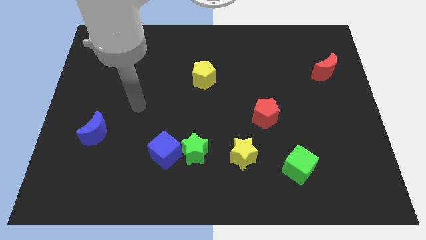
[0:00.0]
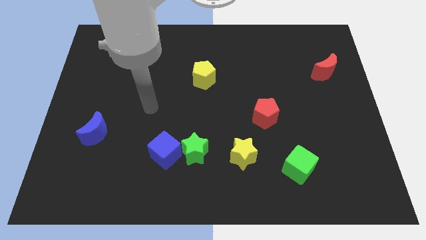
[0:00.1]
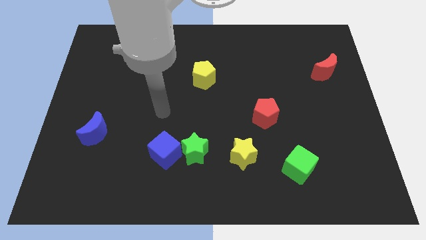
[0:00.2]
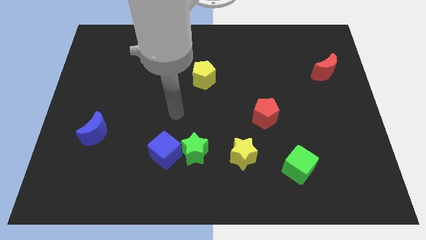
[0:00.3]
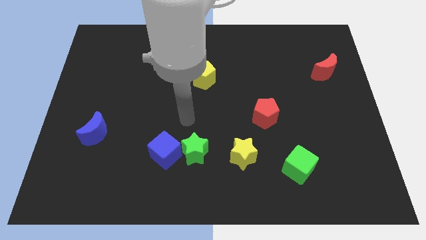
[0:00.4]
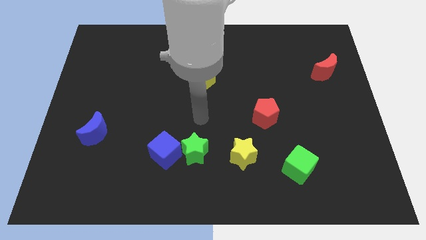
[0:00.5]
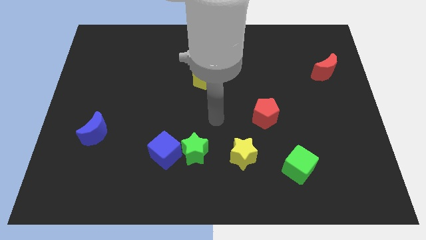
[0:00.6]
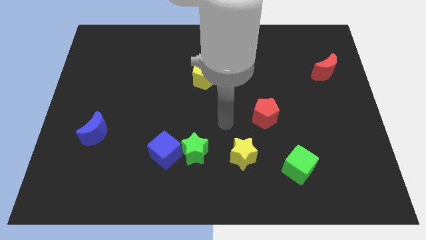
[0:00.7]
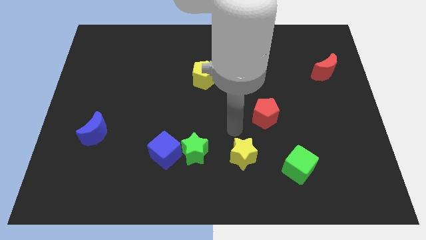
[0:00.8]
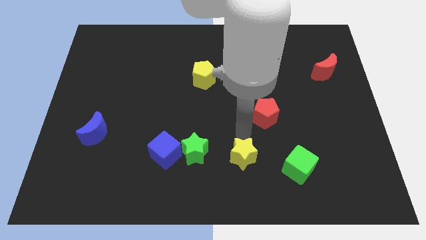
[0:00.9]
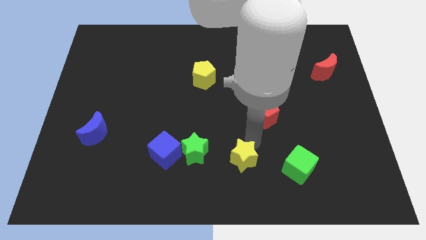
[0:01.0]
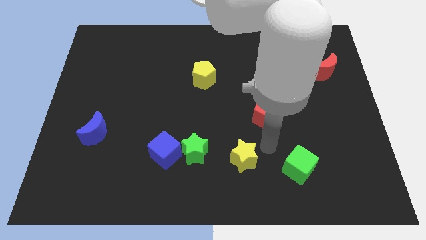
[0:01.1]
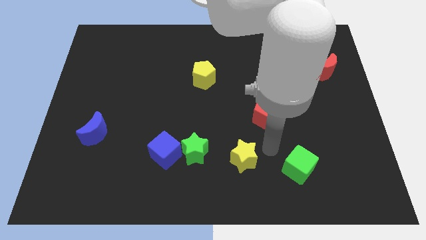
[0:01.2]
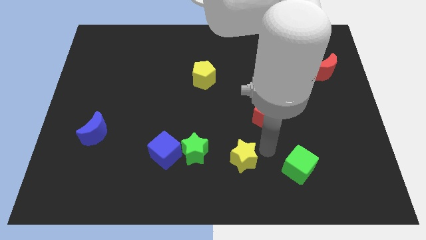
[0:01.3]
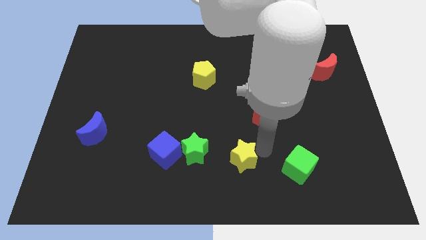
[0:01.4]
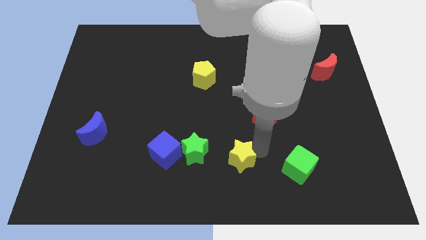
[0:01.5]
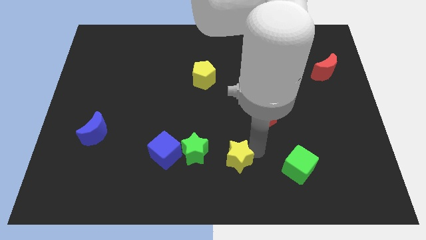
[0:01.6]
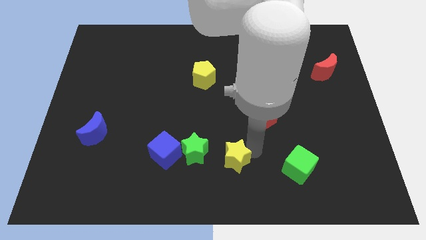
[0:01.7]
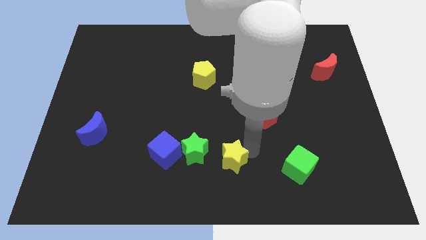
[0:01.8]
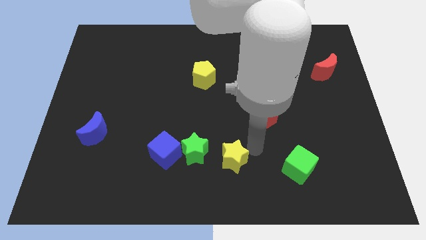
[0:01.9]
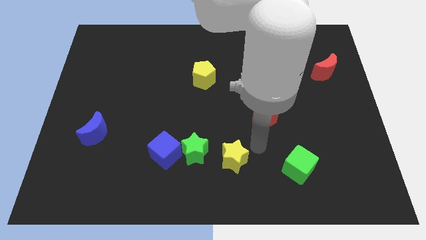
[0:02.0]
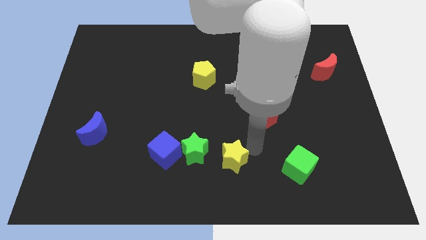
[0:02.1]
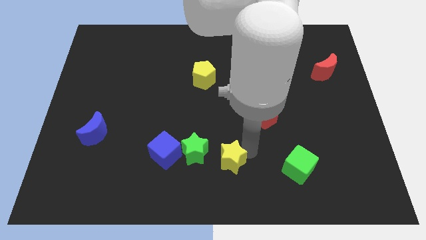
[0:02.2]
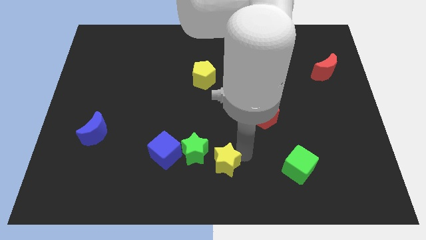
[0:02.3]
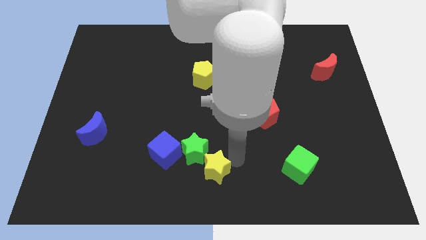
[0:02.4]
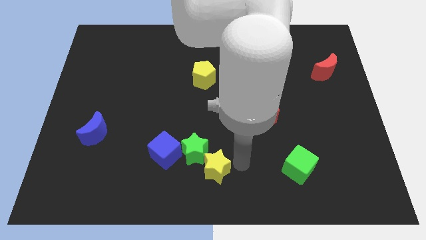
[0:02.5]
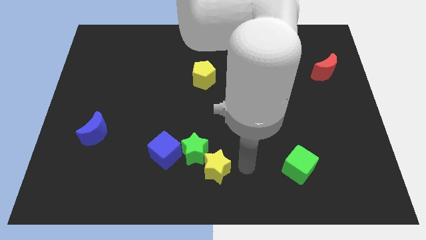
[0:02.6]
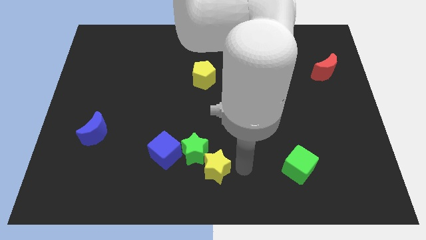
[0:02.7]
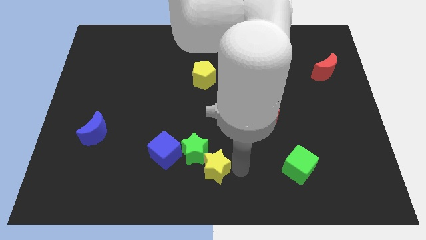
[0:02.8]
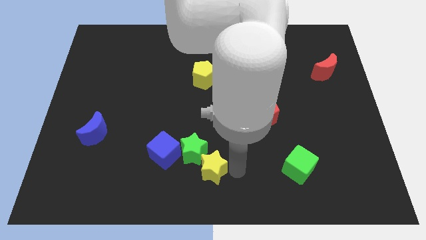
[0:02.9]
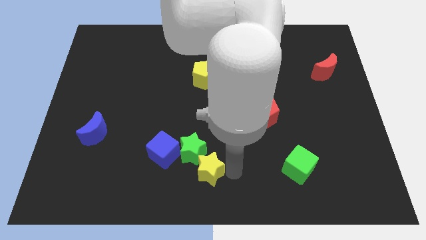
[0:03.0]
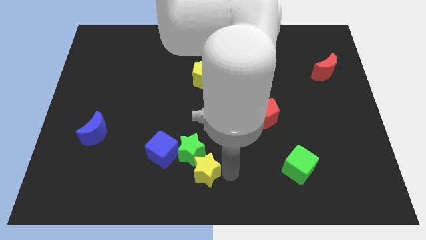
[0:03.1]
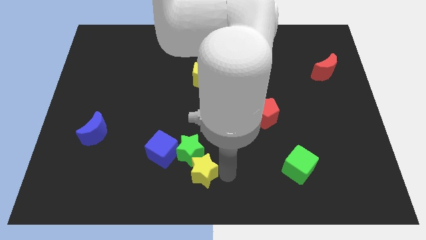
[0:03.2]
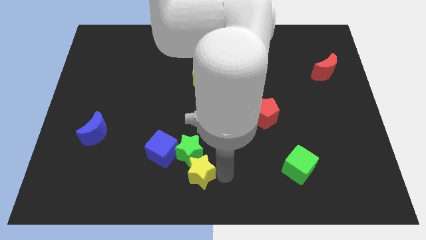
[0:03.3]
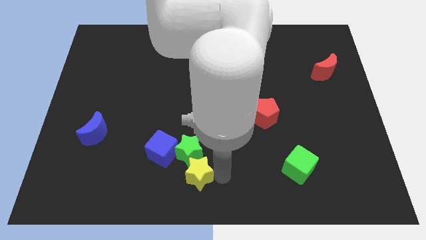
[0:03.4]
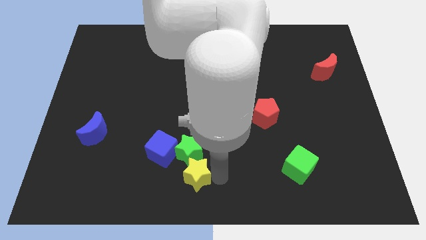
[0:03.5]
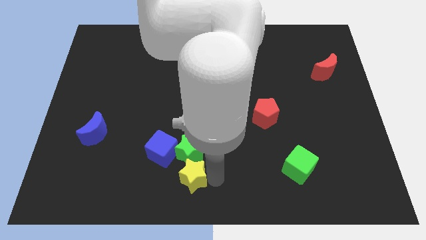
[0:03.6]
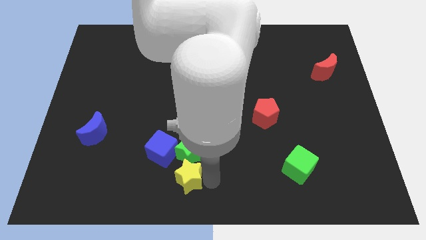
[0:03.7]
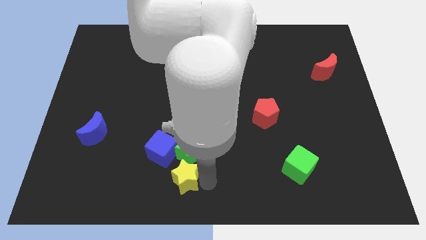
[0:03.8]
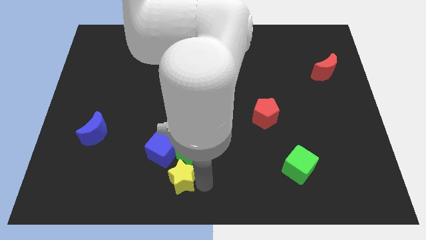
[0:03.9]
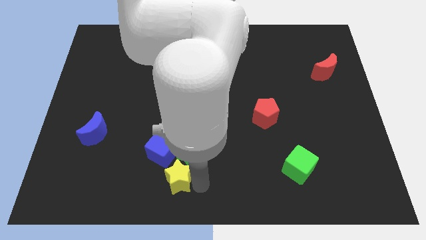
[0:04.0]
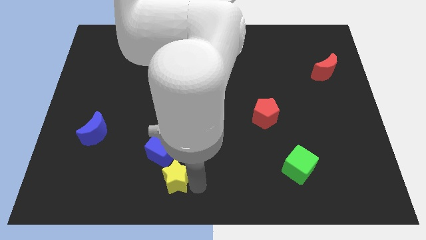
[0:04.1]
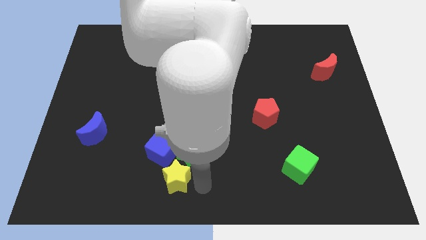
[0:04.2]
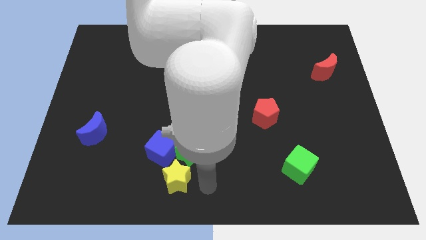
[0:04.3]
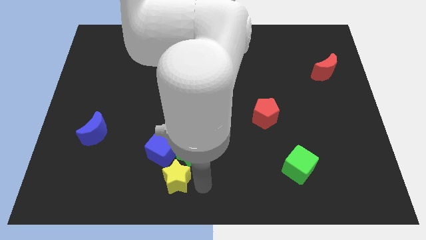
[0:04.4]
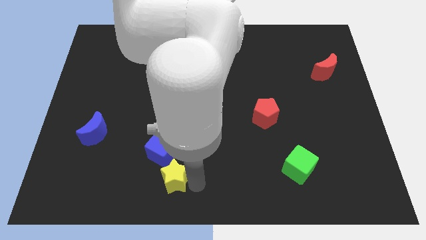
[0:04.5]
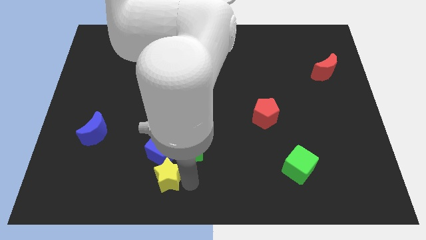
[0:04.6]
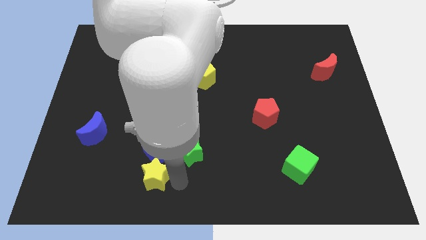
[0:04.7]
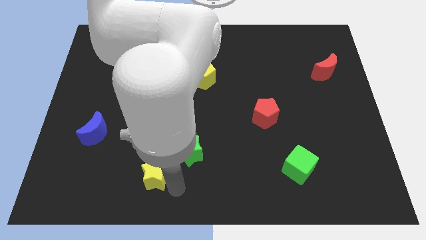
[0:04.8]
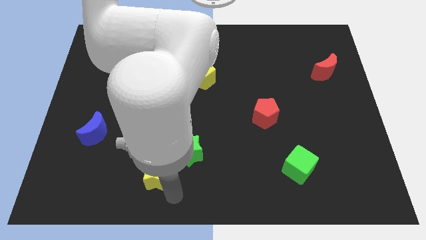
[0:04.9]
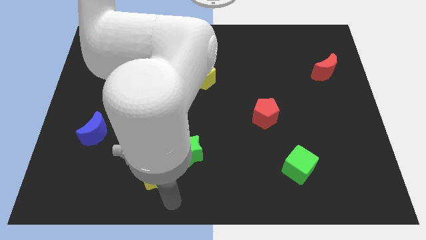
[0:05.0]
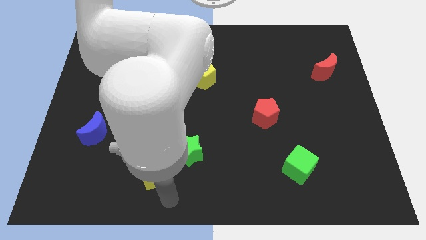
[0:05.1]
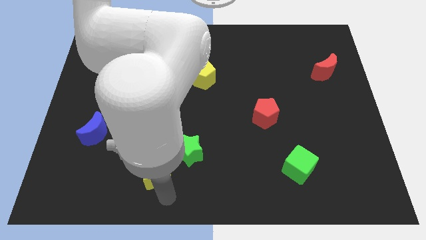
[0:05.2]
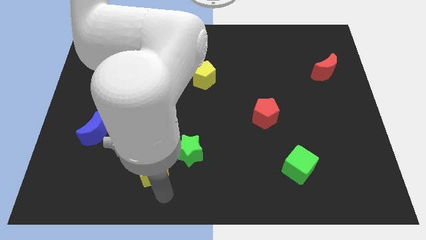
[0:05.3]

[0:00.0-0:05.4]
move the yellow star left of the green star

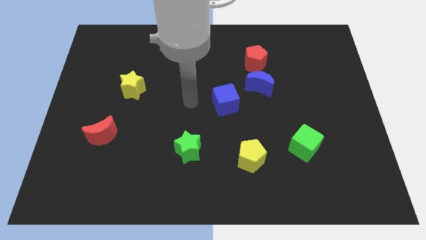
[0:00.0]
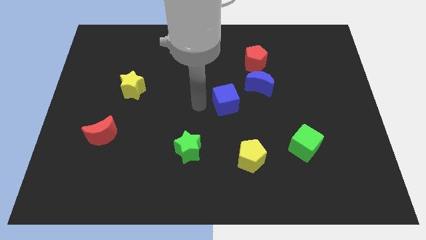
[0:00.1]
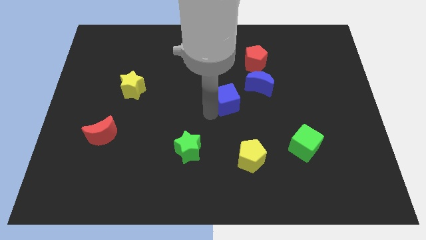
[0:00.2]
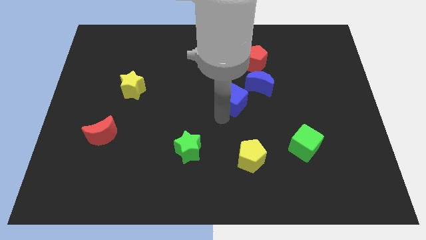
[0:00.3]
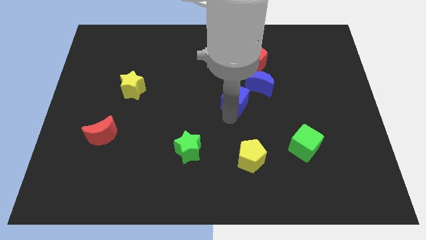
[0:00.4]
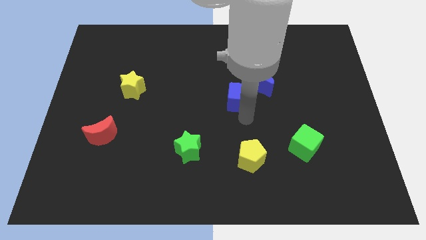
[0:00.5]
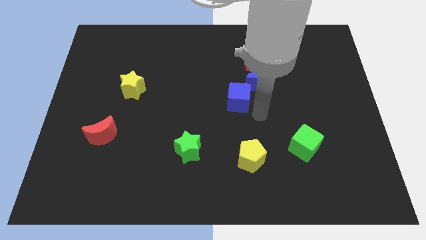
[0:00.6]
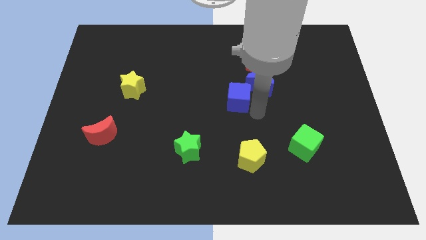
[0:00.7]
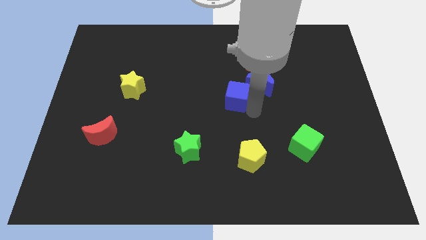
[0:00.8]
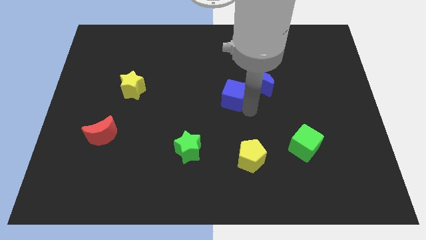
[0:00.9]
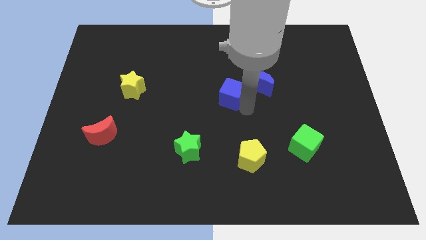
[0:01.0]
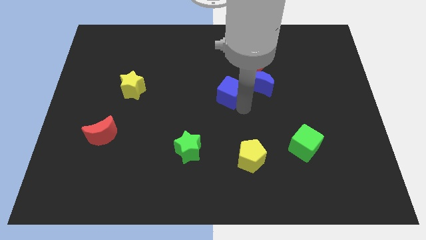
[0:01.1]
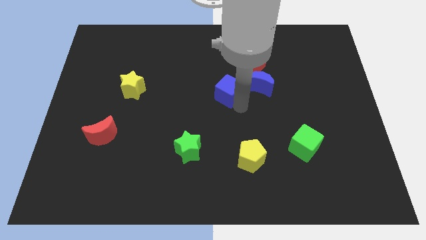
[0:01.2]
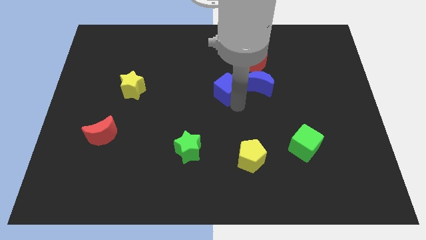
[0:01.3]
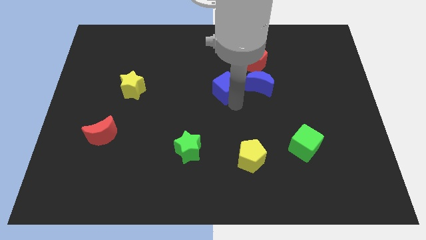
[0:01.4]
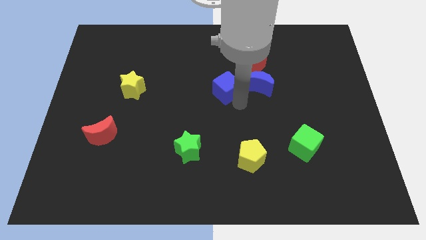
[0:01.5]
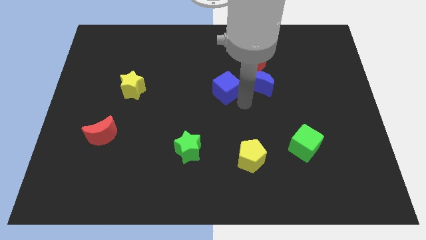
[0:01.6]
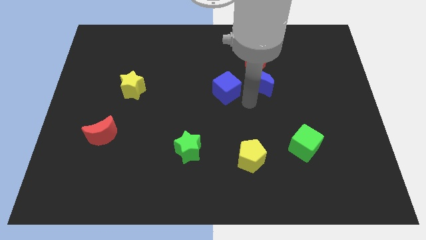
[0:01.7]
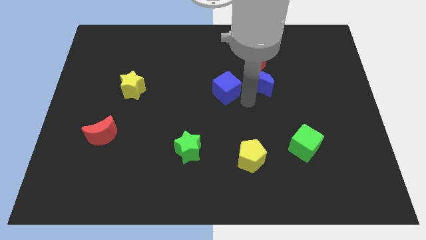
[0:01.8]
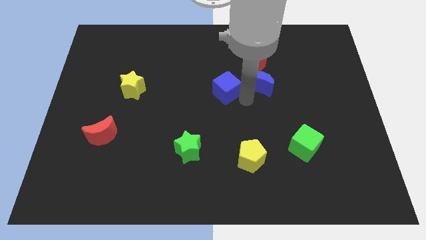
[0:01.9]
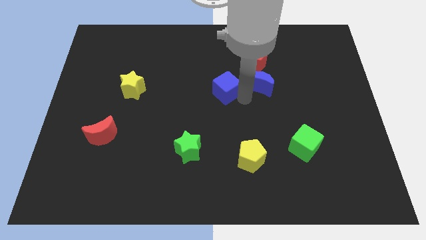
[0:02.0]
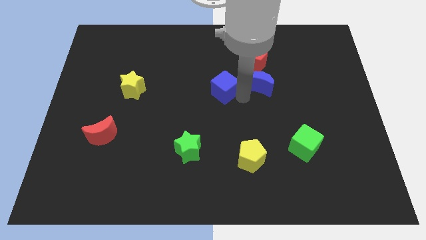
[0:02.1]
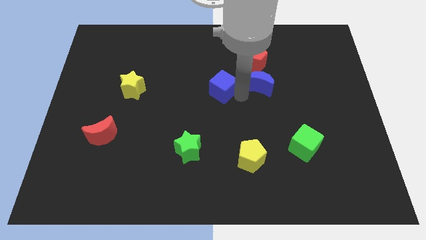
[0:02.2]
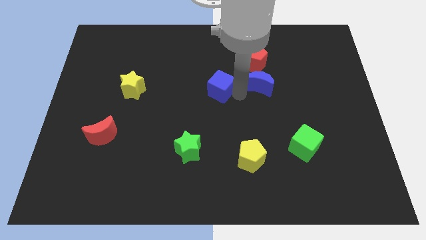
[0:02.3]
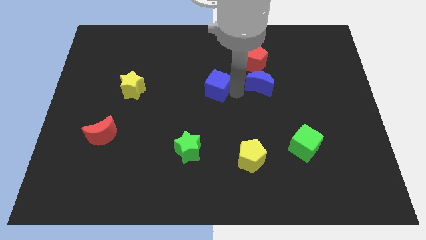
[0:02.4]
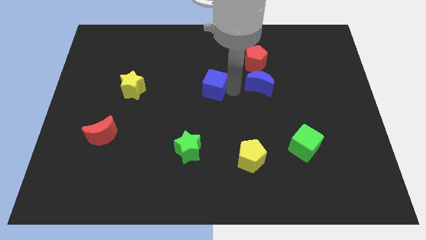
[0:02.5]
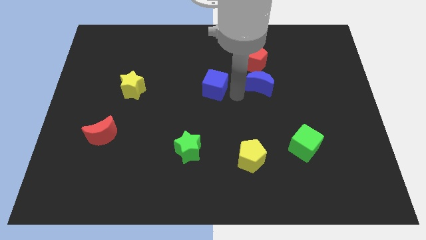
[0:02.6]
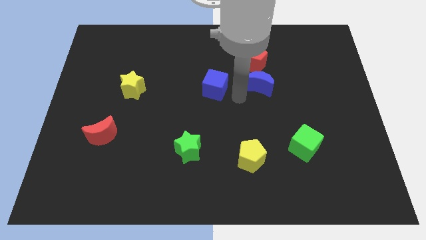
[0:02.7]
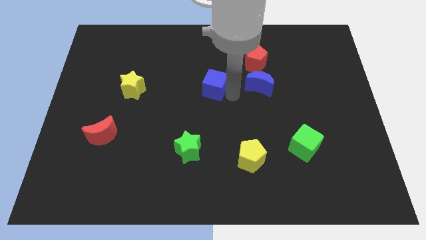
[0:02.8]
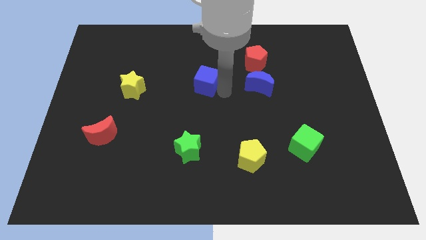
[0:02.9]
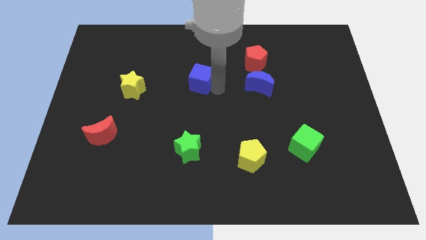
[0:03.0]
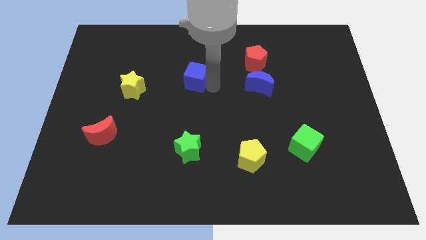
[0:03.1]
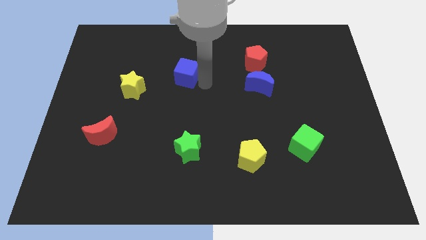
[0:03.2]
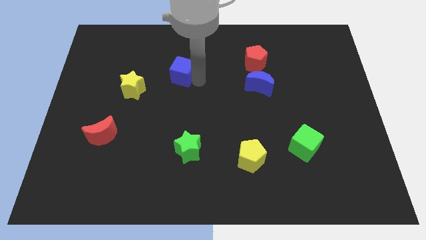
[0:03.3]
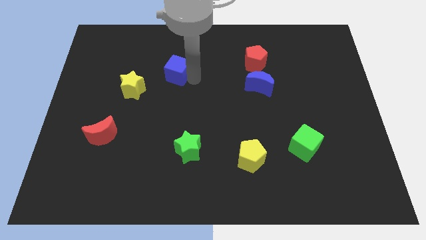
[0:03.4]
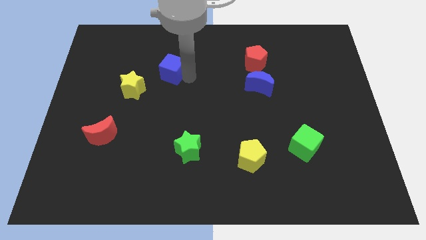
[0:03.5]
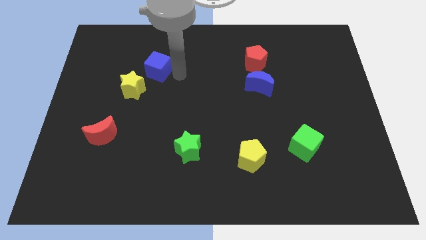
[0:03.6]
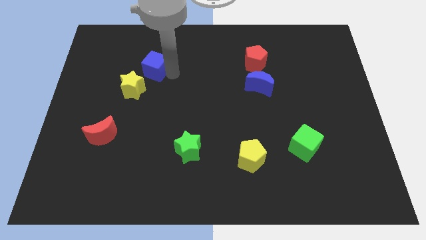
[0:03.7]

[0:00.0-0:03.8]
slide the blue cube to the top side of the yellow star
